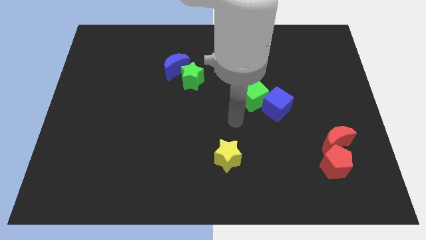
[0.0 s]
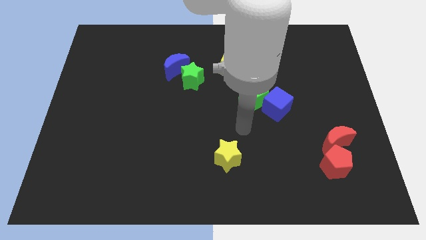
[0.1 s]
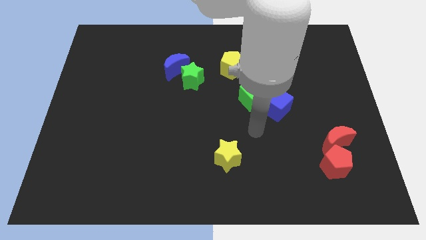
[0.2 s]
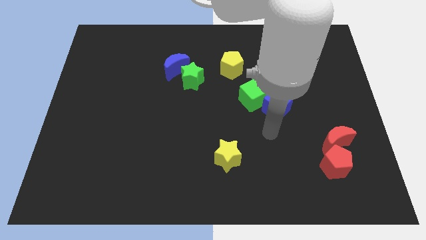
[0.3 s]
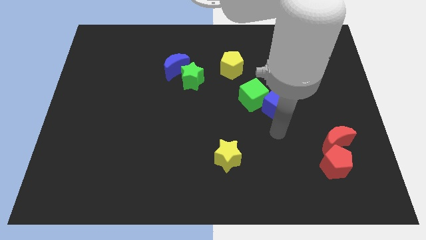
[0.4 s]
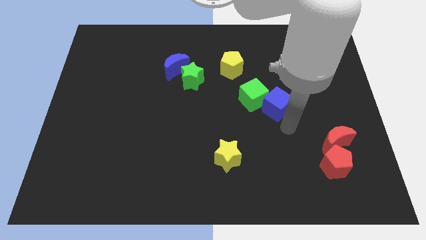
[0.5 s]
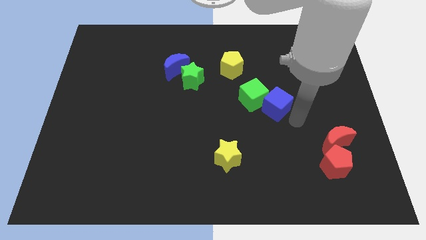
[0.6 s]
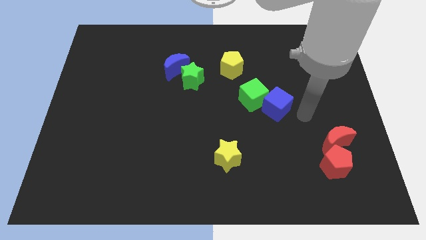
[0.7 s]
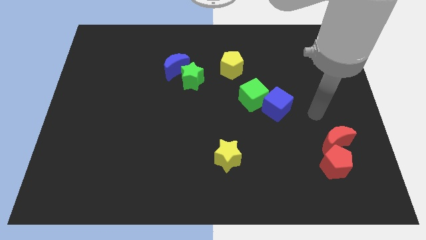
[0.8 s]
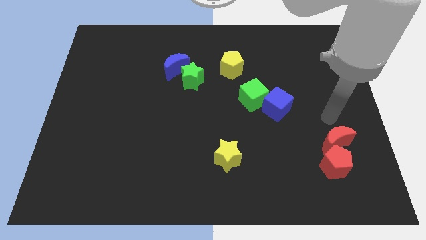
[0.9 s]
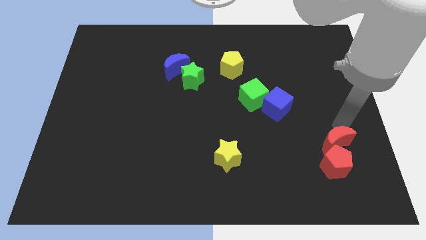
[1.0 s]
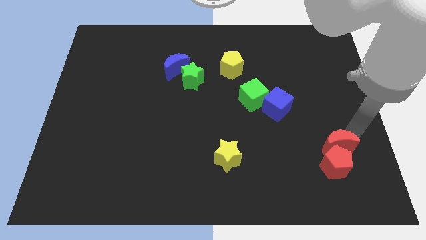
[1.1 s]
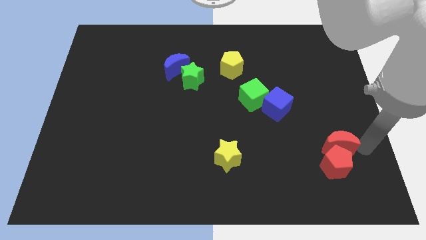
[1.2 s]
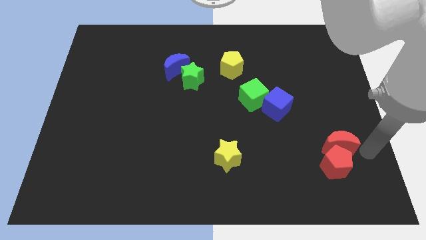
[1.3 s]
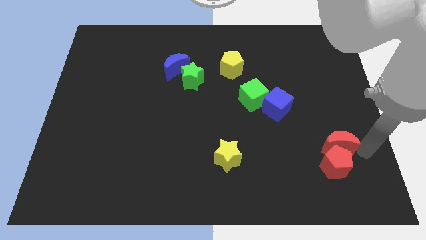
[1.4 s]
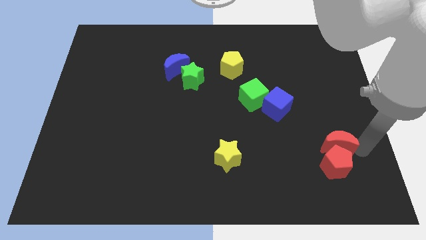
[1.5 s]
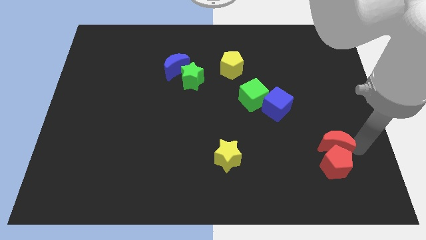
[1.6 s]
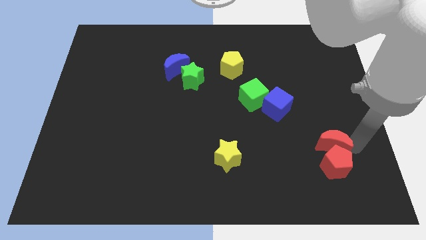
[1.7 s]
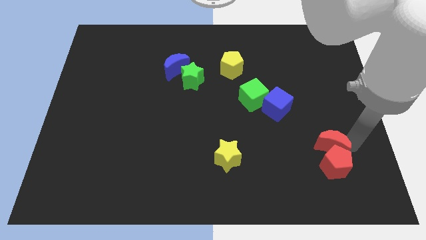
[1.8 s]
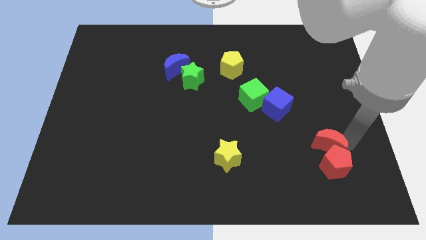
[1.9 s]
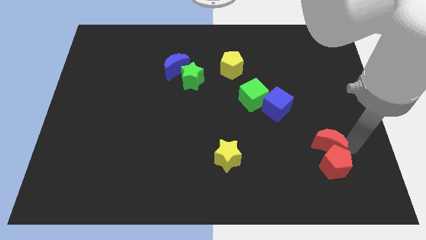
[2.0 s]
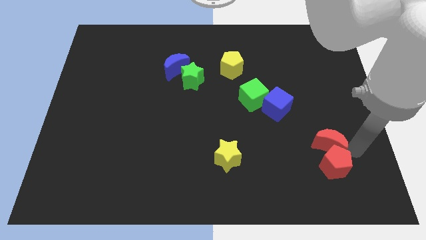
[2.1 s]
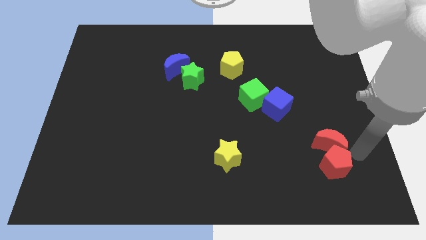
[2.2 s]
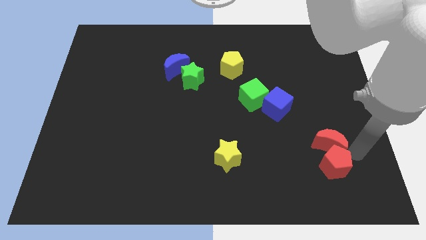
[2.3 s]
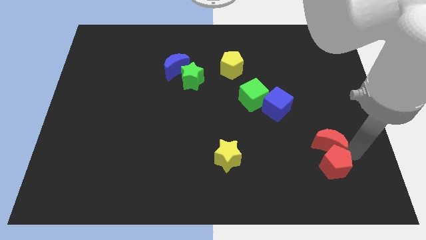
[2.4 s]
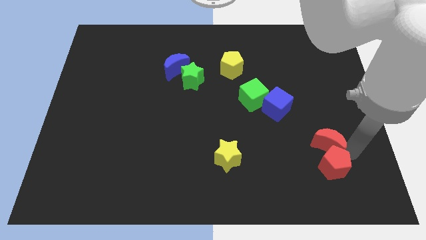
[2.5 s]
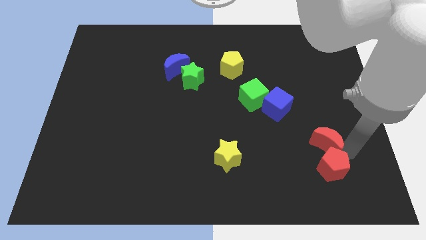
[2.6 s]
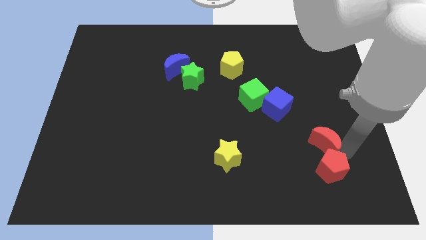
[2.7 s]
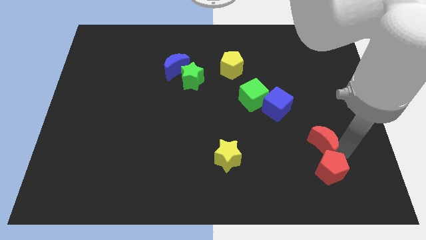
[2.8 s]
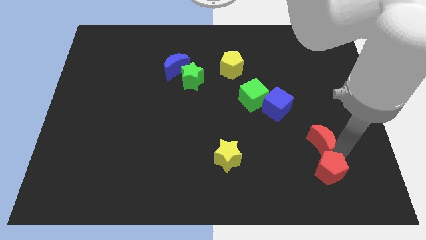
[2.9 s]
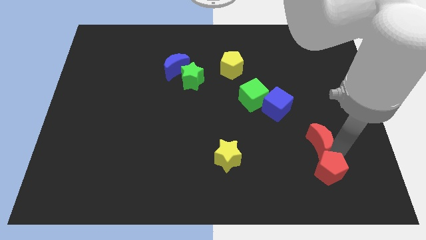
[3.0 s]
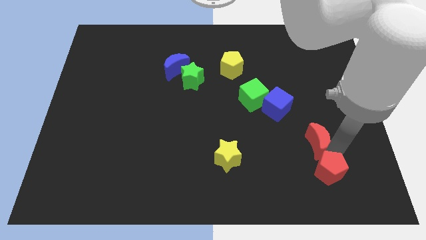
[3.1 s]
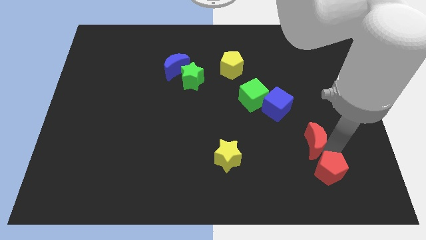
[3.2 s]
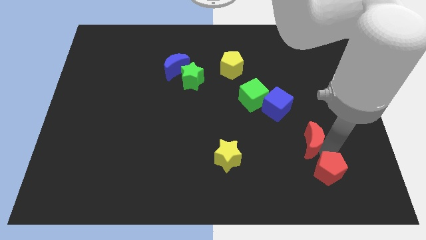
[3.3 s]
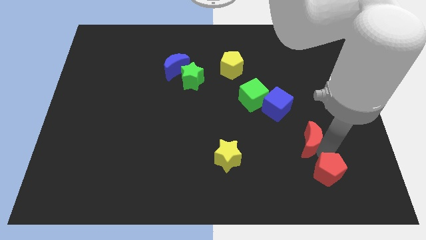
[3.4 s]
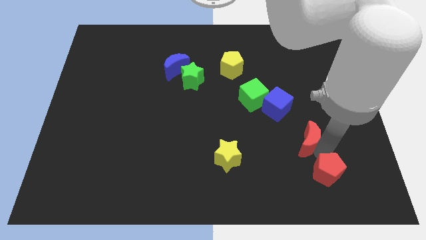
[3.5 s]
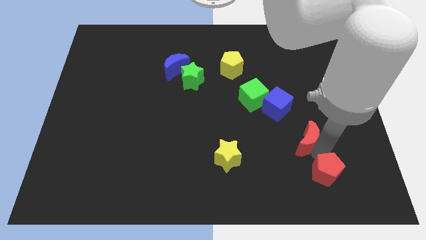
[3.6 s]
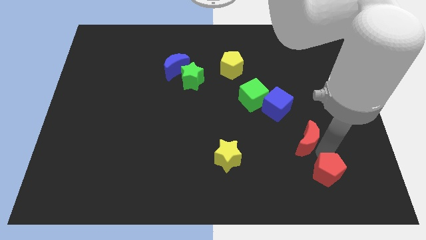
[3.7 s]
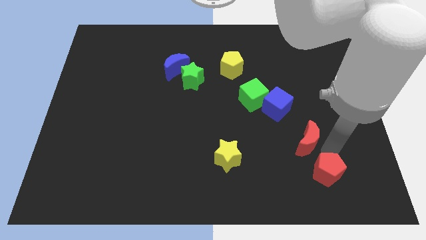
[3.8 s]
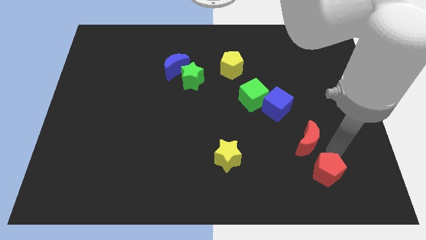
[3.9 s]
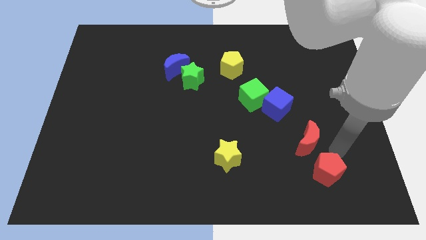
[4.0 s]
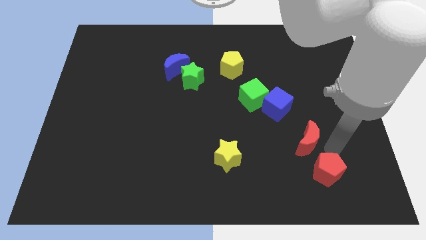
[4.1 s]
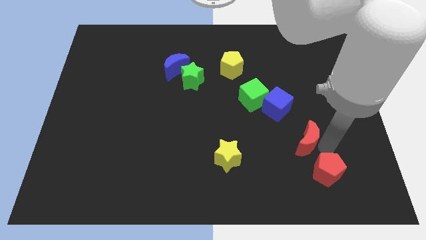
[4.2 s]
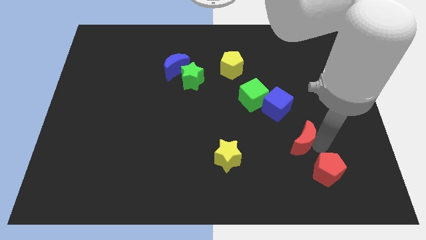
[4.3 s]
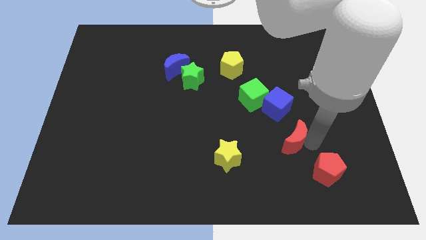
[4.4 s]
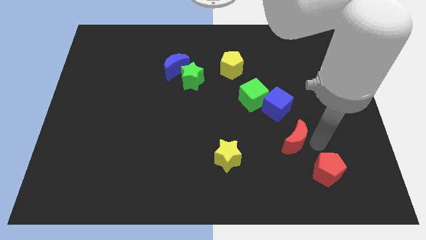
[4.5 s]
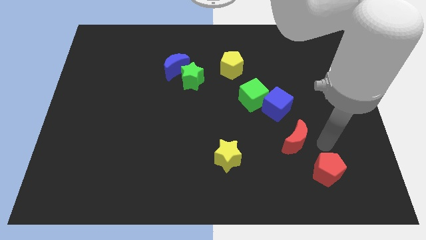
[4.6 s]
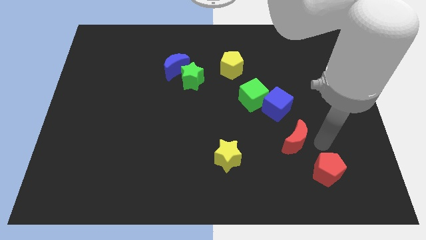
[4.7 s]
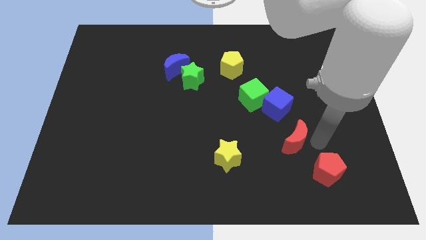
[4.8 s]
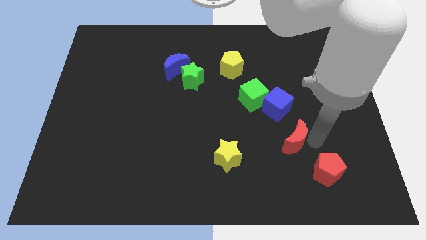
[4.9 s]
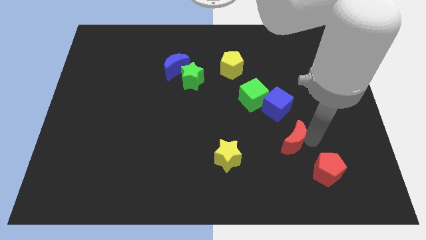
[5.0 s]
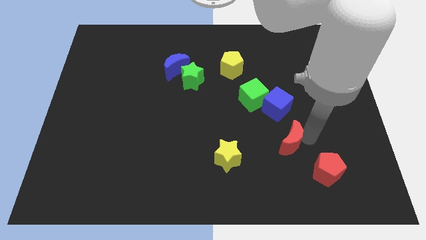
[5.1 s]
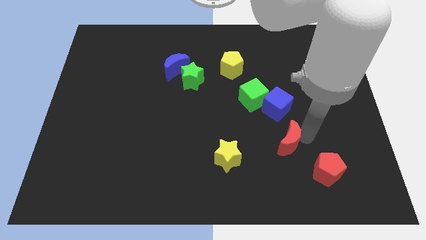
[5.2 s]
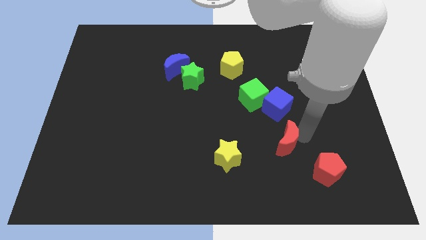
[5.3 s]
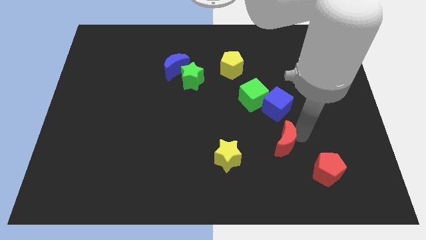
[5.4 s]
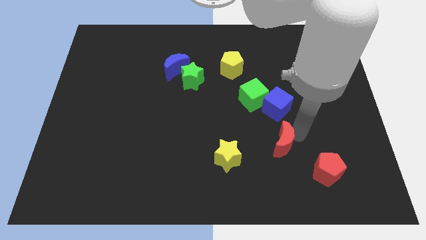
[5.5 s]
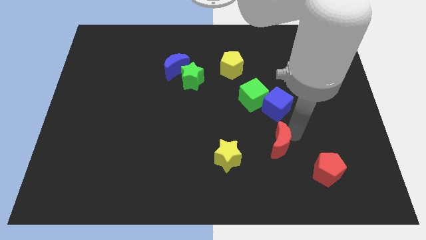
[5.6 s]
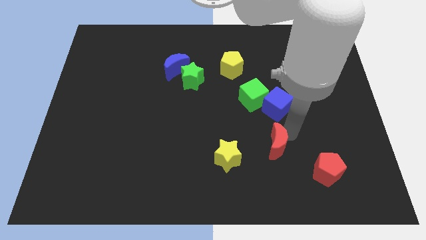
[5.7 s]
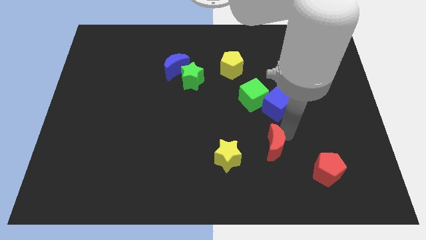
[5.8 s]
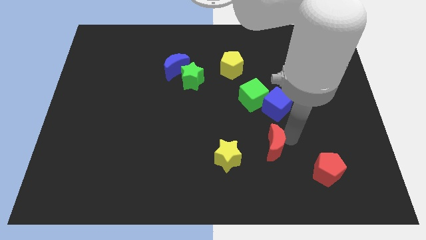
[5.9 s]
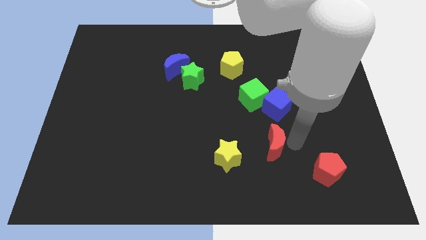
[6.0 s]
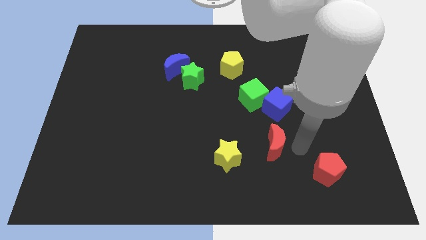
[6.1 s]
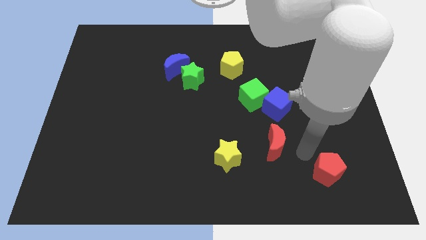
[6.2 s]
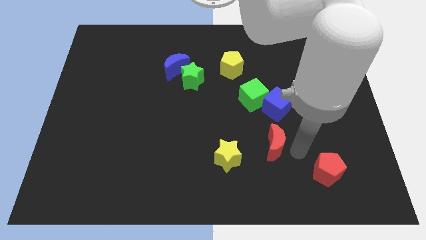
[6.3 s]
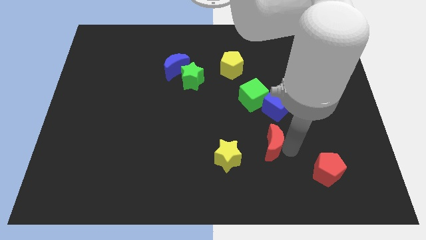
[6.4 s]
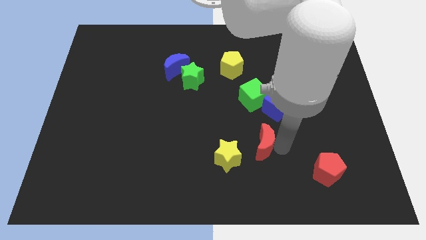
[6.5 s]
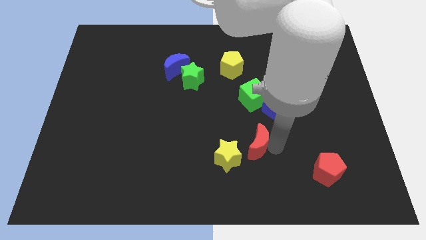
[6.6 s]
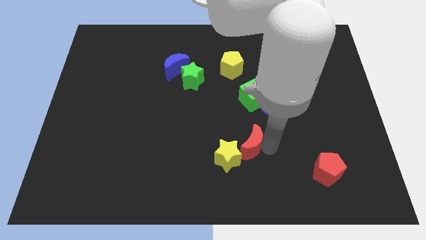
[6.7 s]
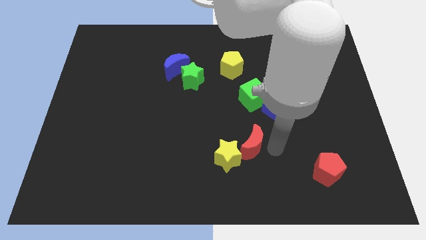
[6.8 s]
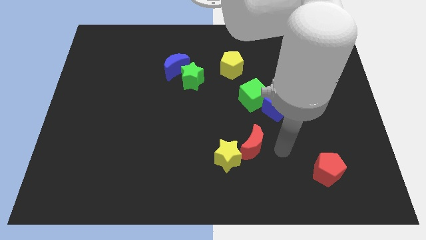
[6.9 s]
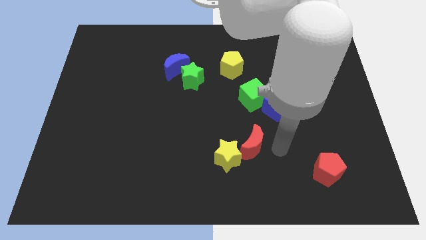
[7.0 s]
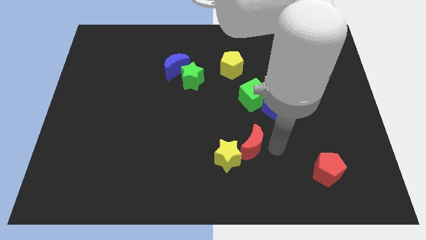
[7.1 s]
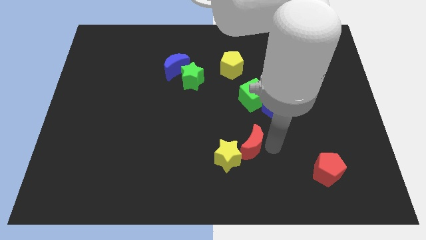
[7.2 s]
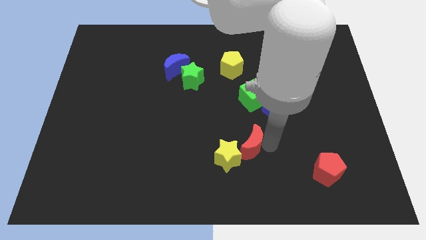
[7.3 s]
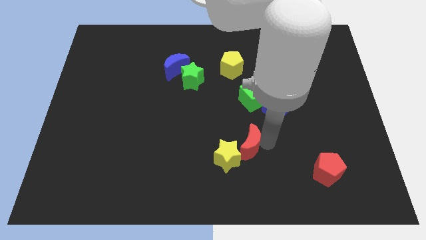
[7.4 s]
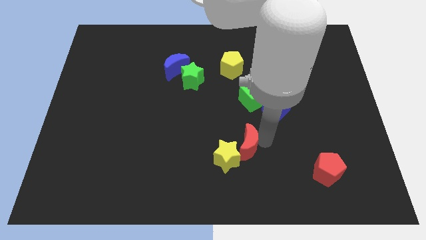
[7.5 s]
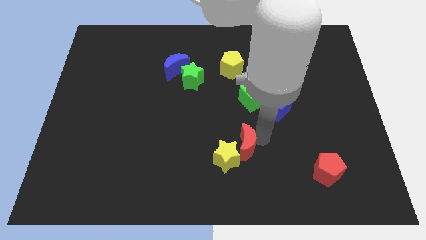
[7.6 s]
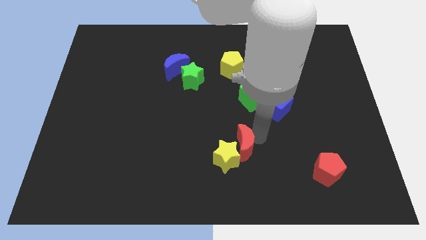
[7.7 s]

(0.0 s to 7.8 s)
move the red moon to the left

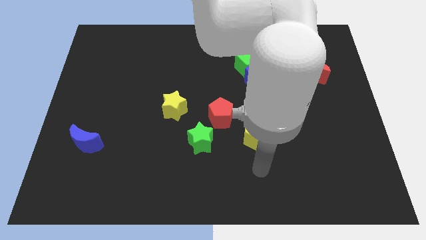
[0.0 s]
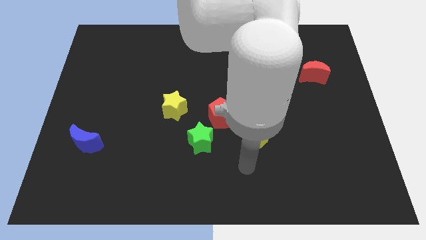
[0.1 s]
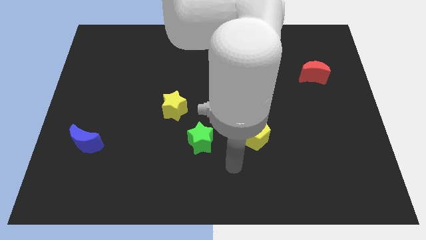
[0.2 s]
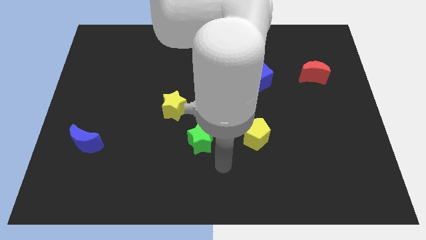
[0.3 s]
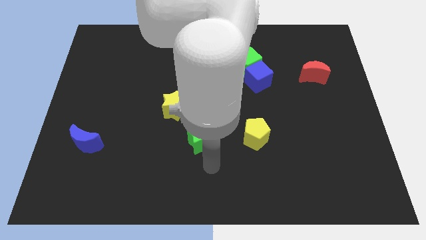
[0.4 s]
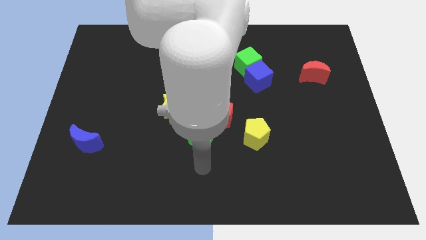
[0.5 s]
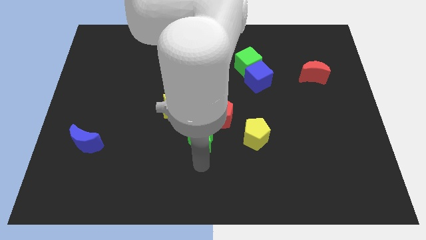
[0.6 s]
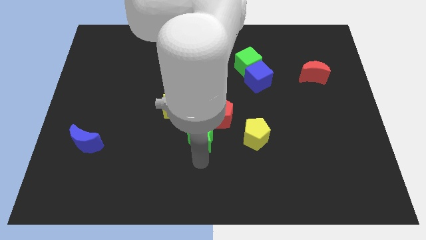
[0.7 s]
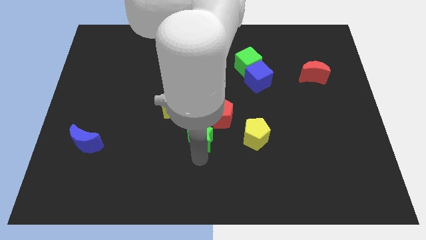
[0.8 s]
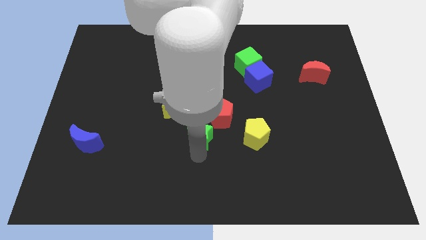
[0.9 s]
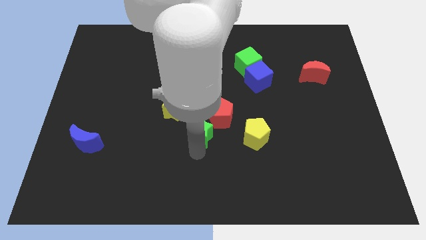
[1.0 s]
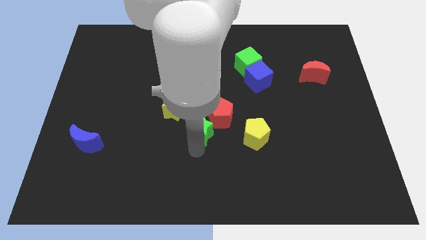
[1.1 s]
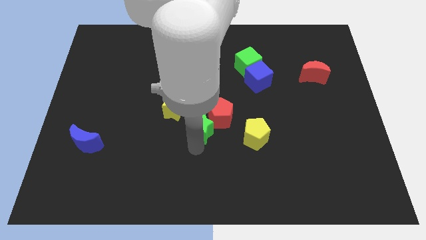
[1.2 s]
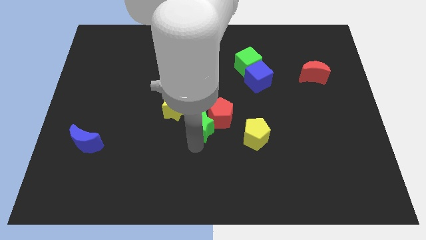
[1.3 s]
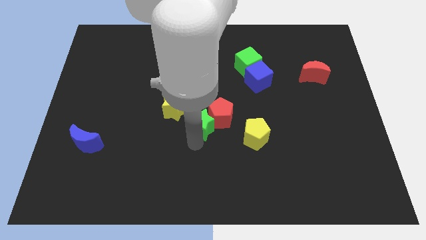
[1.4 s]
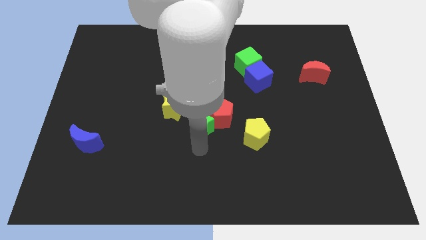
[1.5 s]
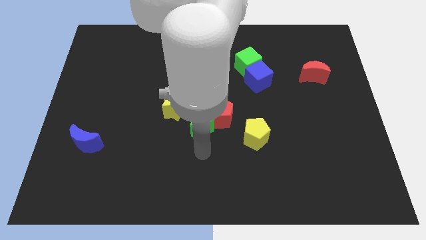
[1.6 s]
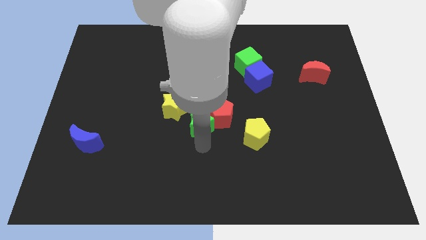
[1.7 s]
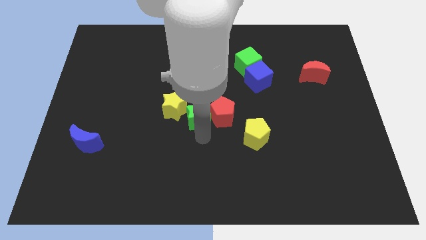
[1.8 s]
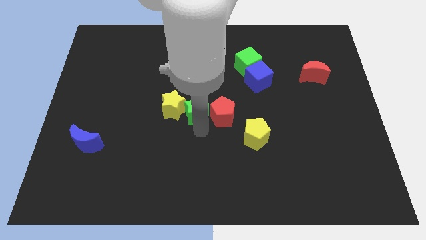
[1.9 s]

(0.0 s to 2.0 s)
slightly push the green star upwards
